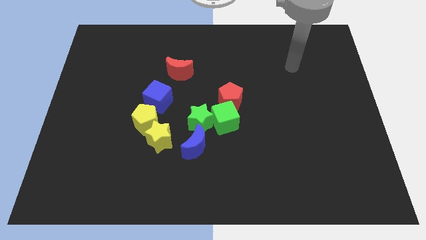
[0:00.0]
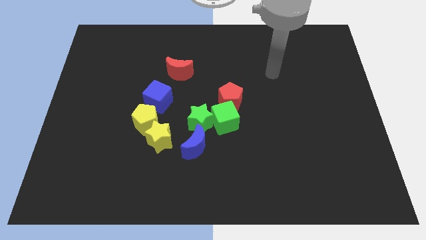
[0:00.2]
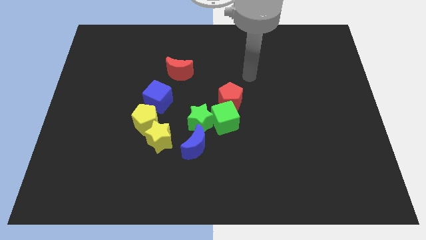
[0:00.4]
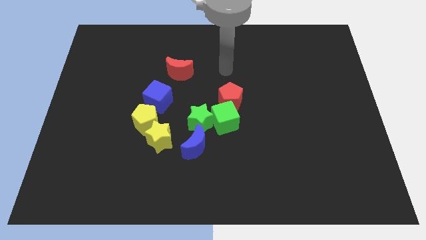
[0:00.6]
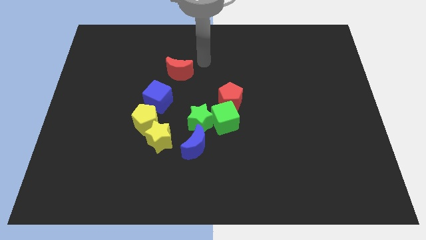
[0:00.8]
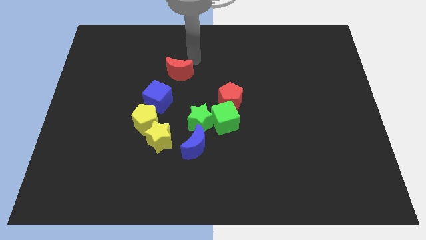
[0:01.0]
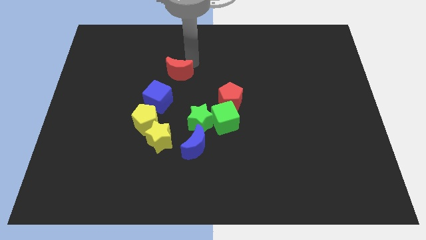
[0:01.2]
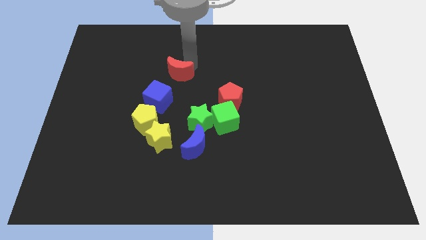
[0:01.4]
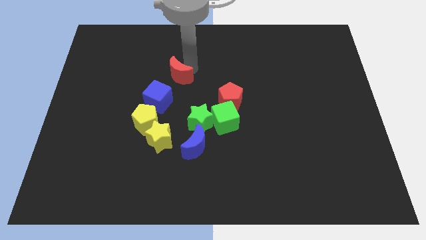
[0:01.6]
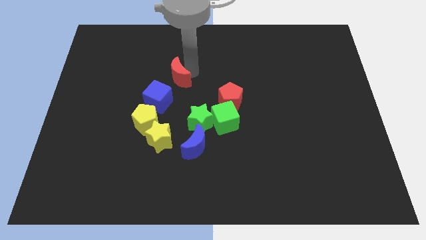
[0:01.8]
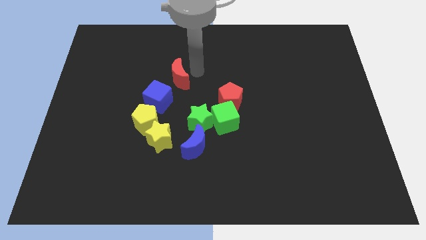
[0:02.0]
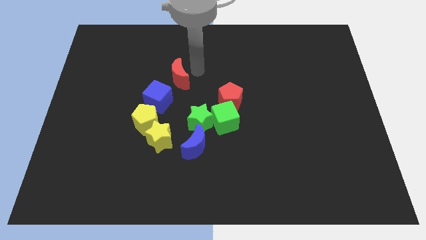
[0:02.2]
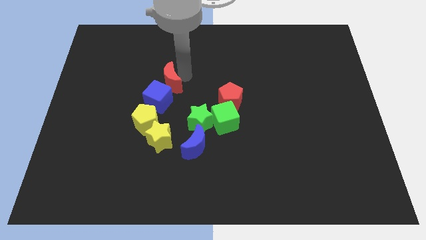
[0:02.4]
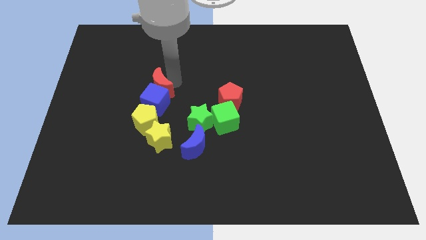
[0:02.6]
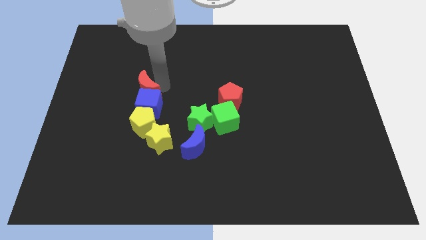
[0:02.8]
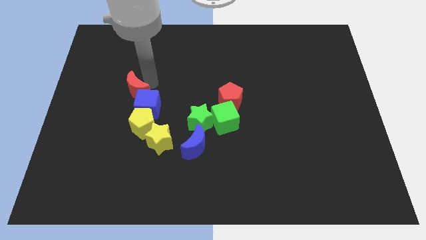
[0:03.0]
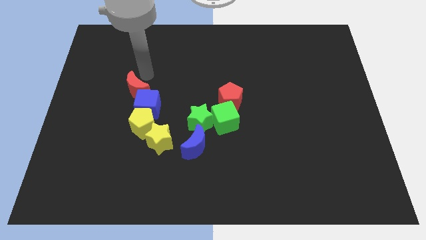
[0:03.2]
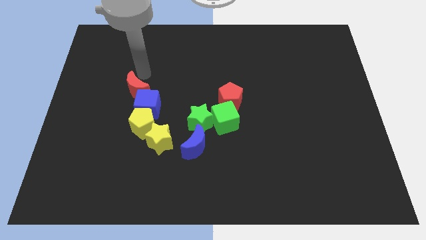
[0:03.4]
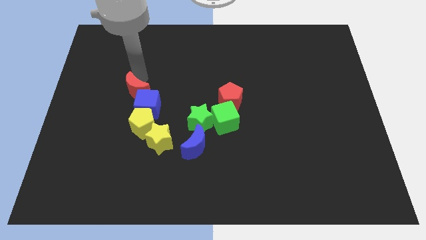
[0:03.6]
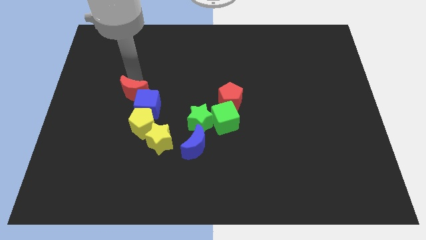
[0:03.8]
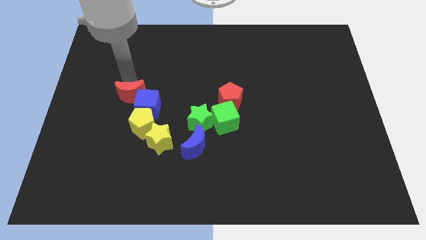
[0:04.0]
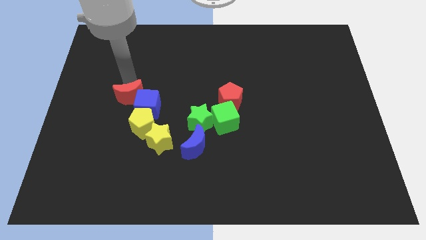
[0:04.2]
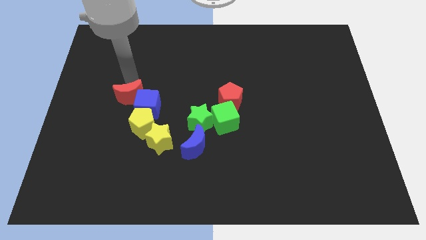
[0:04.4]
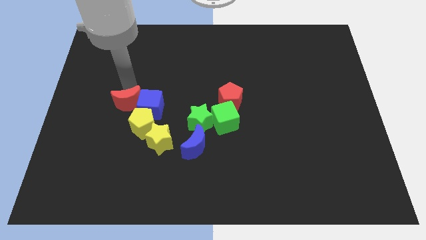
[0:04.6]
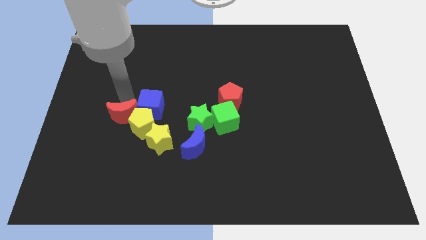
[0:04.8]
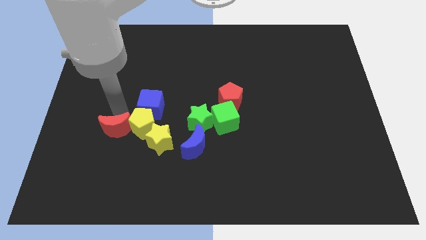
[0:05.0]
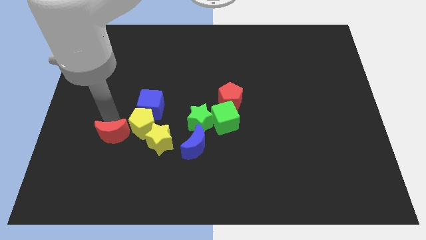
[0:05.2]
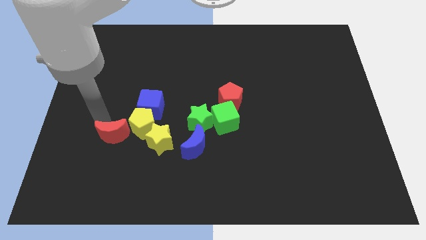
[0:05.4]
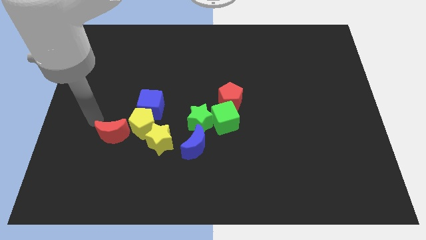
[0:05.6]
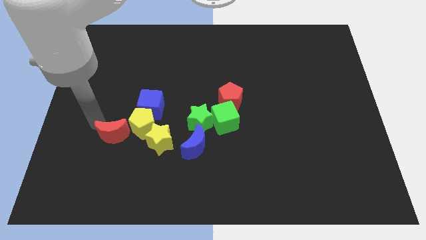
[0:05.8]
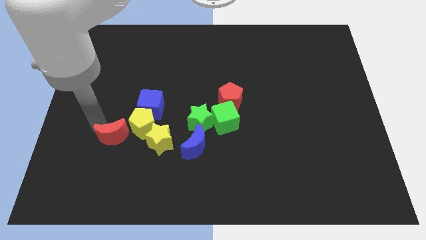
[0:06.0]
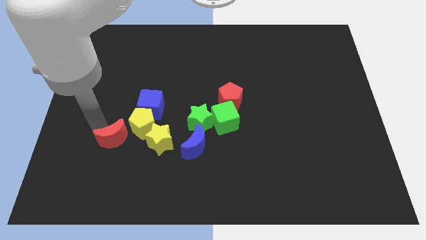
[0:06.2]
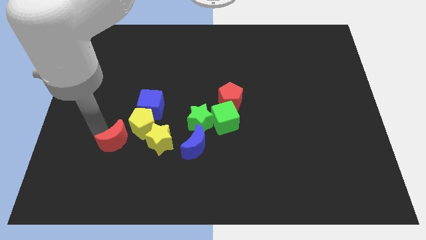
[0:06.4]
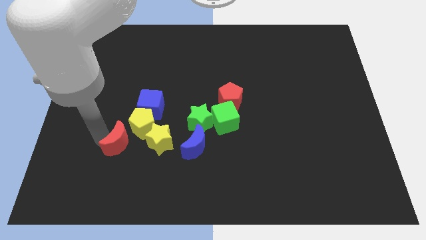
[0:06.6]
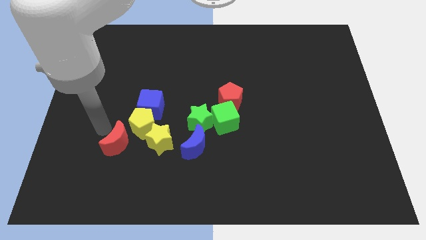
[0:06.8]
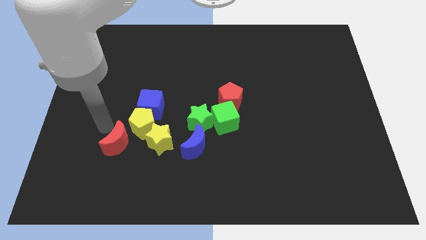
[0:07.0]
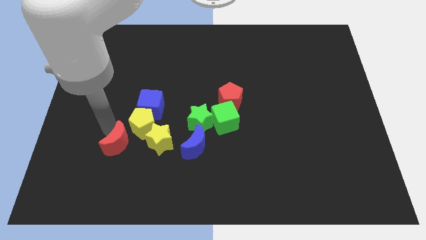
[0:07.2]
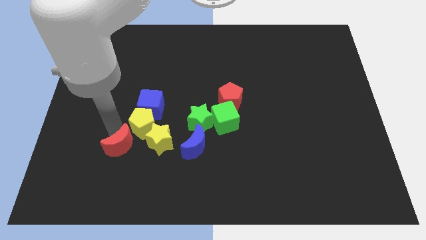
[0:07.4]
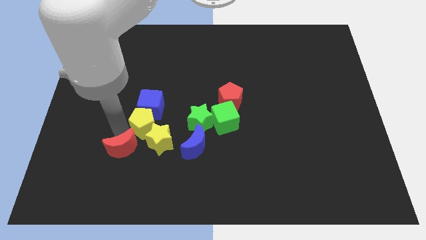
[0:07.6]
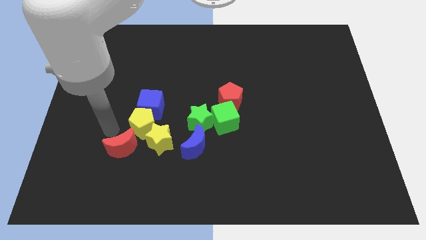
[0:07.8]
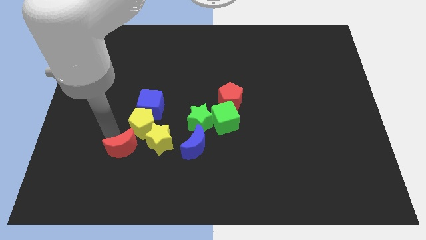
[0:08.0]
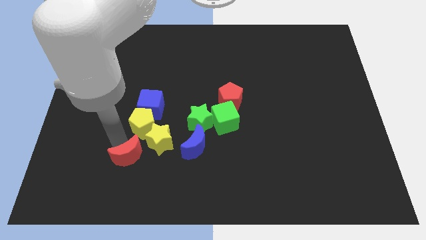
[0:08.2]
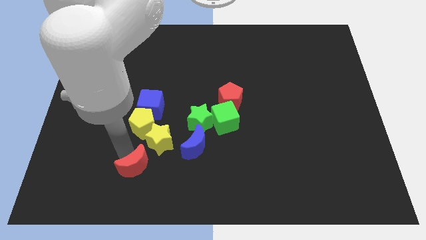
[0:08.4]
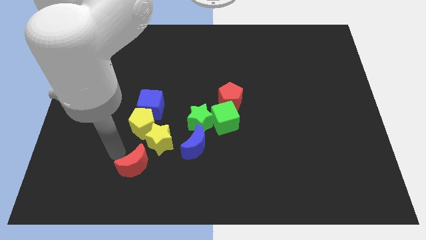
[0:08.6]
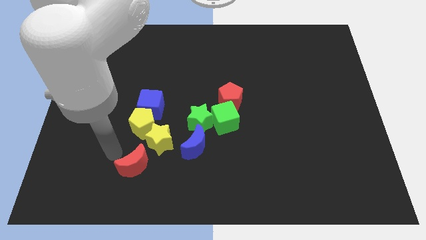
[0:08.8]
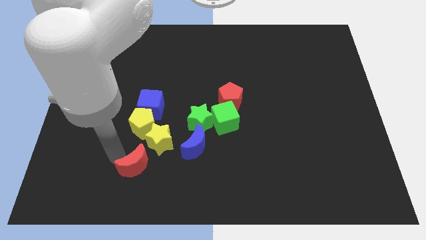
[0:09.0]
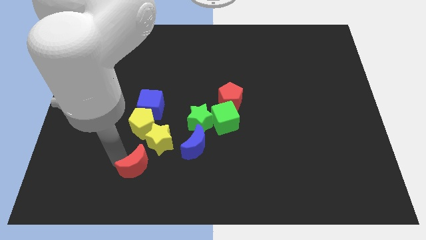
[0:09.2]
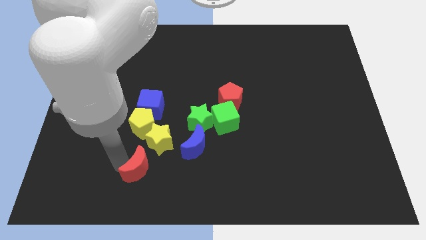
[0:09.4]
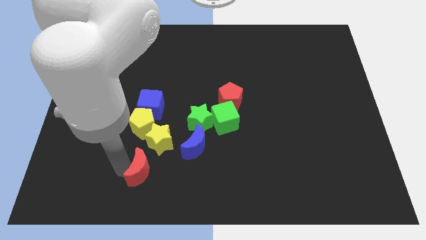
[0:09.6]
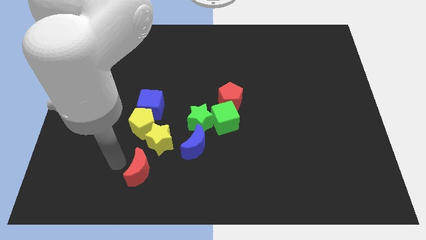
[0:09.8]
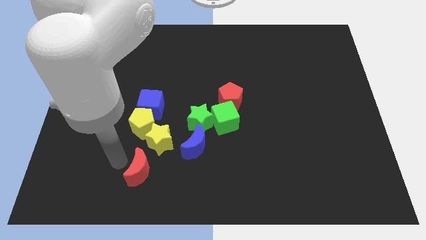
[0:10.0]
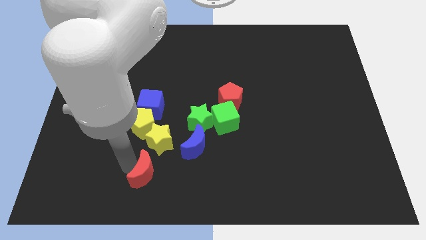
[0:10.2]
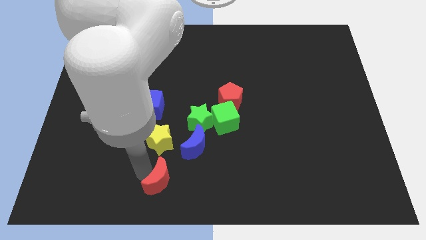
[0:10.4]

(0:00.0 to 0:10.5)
move the red moon to the bottom side

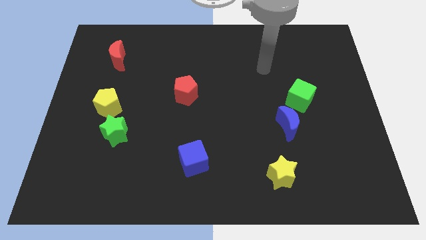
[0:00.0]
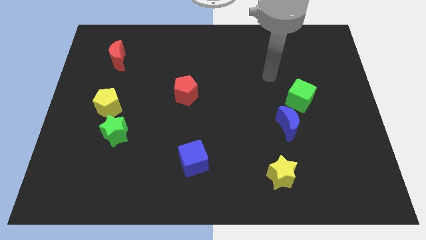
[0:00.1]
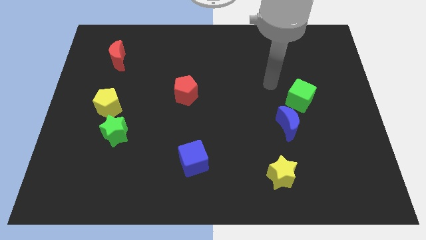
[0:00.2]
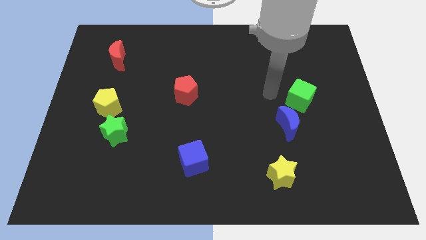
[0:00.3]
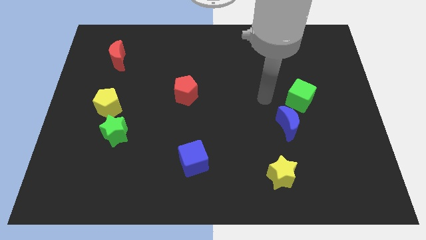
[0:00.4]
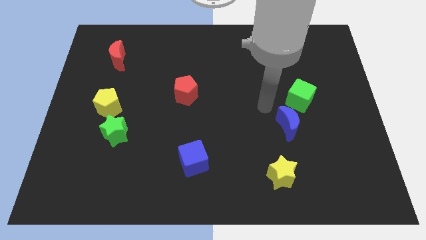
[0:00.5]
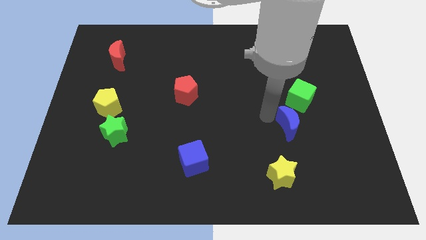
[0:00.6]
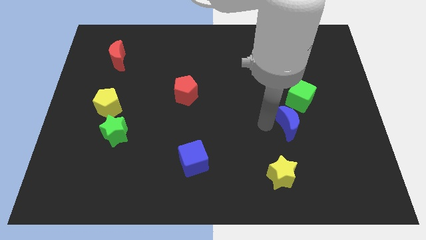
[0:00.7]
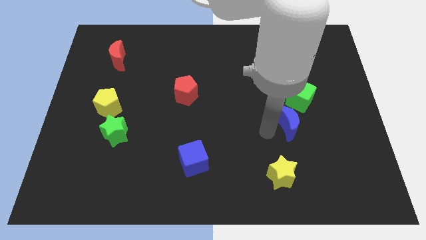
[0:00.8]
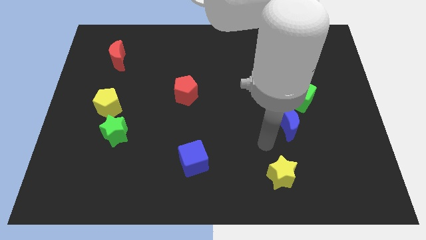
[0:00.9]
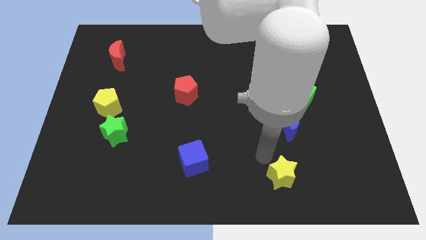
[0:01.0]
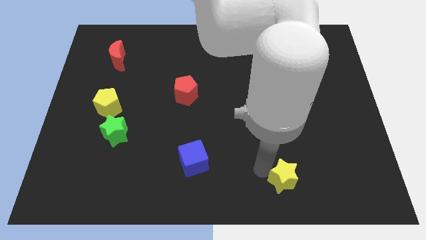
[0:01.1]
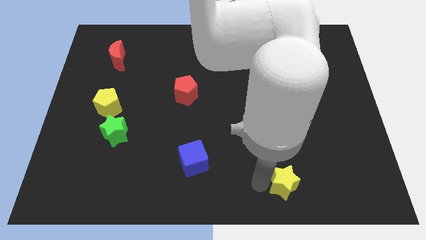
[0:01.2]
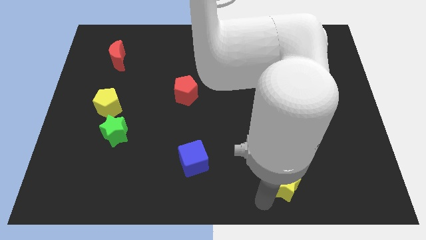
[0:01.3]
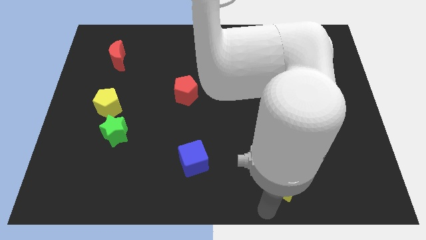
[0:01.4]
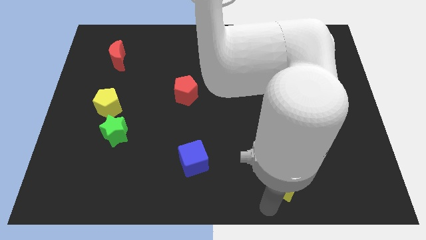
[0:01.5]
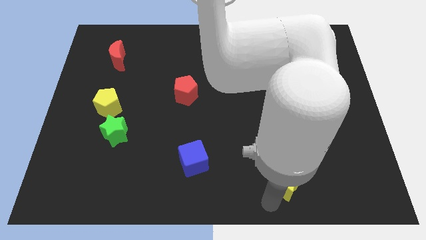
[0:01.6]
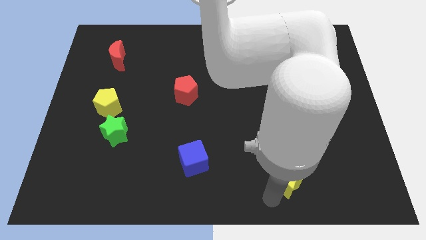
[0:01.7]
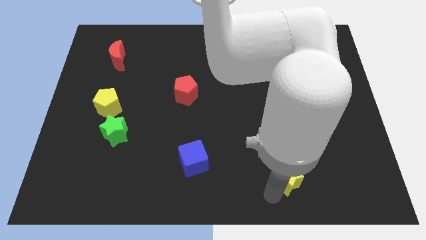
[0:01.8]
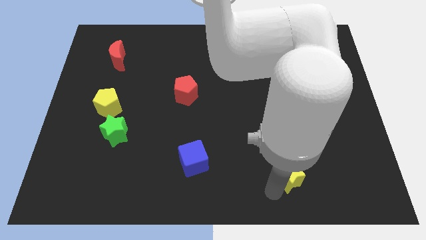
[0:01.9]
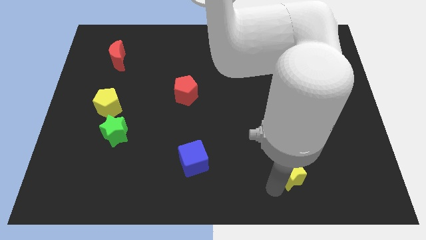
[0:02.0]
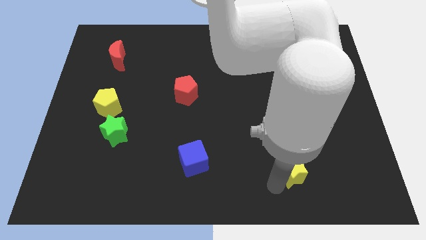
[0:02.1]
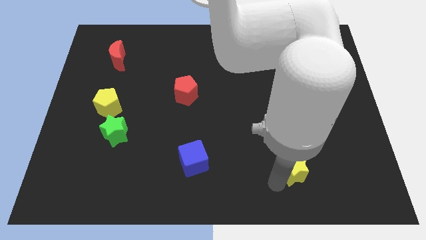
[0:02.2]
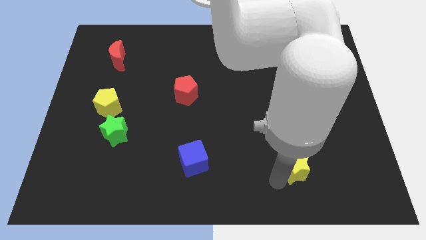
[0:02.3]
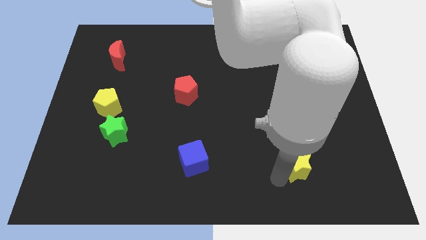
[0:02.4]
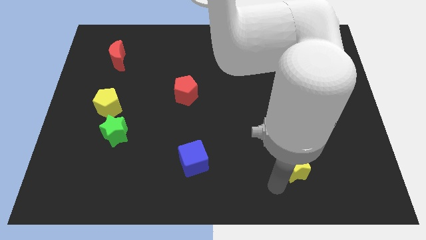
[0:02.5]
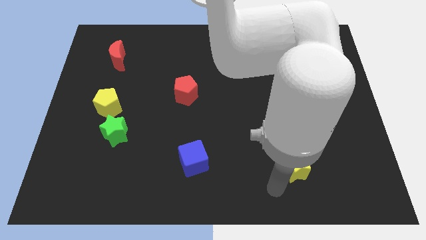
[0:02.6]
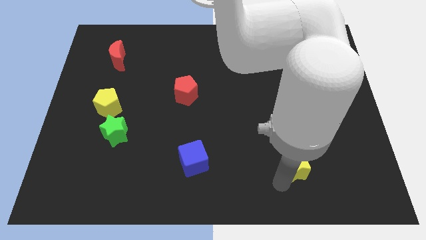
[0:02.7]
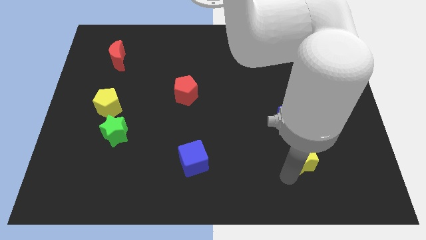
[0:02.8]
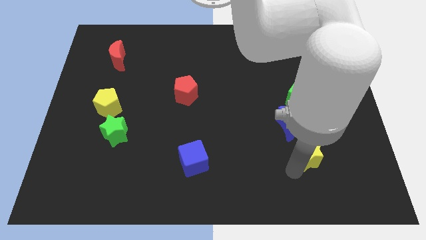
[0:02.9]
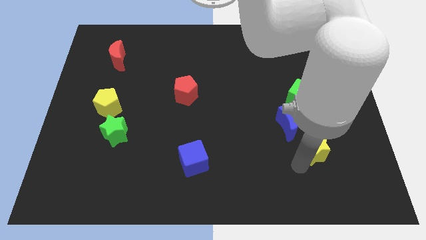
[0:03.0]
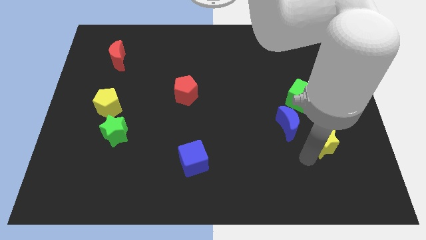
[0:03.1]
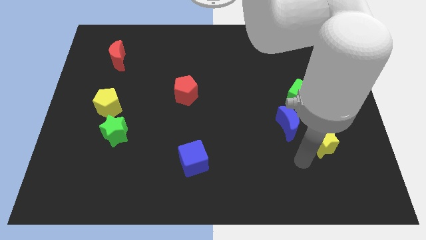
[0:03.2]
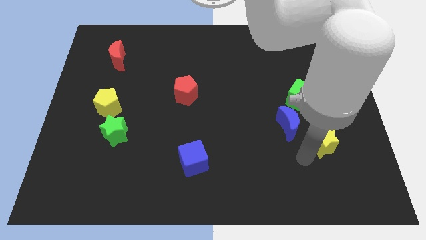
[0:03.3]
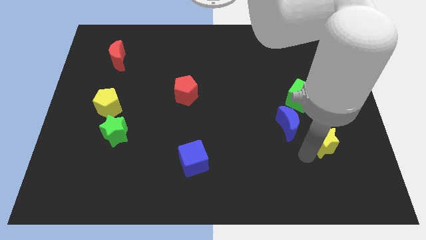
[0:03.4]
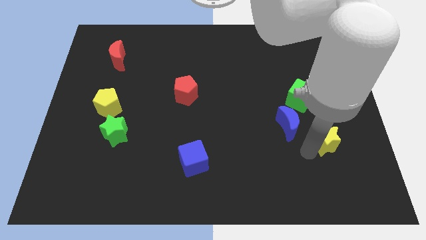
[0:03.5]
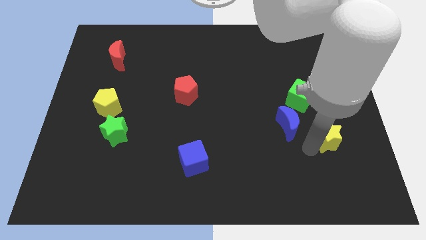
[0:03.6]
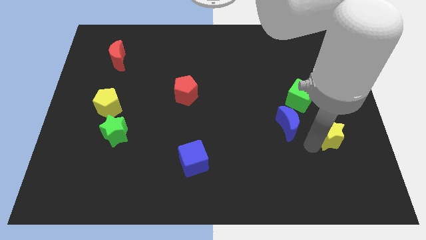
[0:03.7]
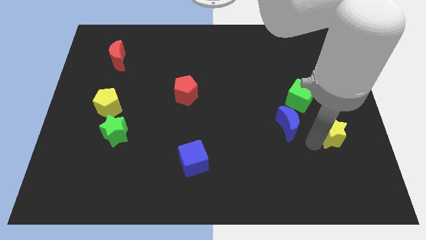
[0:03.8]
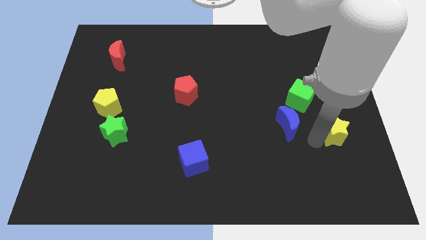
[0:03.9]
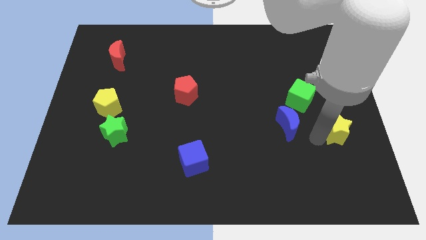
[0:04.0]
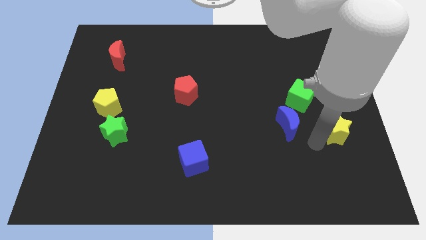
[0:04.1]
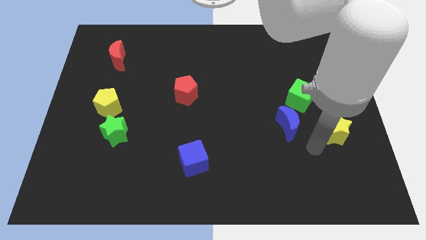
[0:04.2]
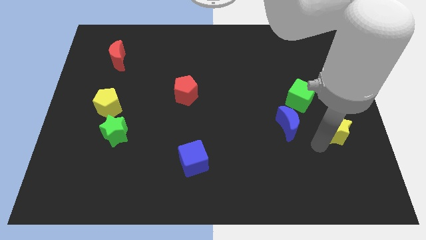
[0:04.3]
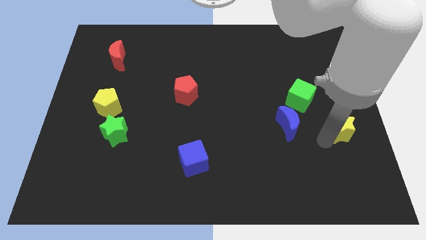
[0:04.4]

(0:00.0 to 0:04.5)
slide the yellow star to the right side of the board
